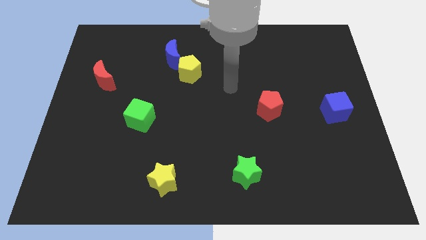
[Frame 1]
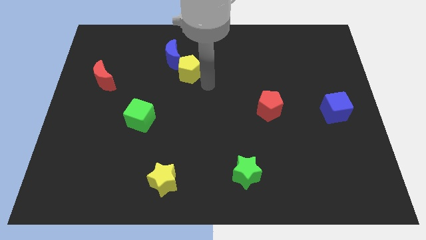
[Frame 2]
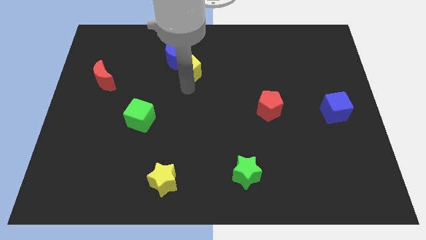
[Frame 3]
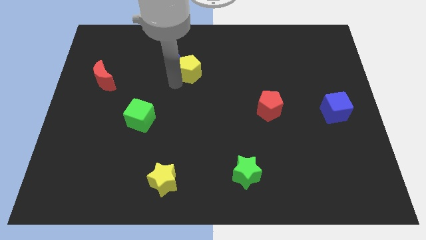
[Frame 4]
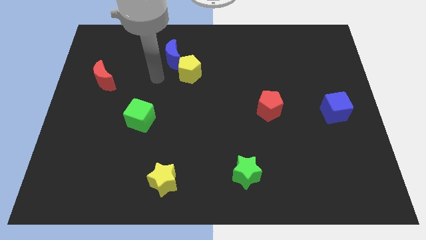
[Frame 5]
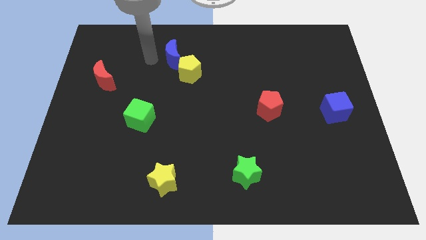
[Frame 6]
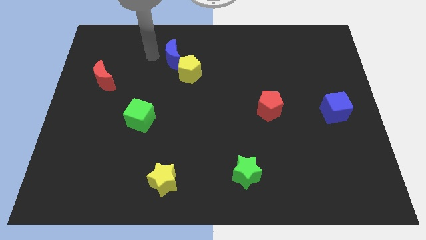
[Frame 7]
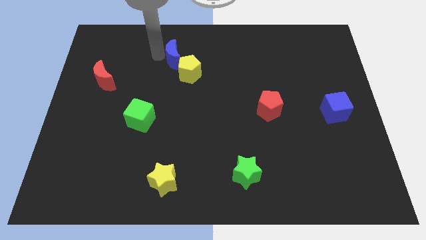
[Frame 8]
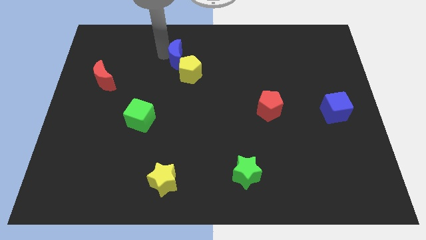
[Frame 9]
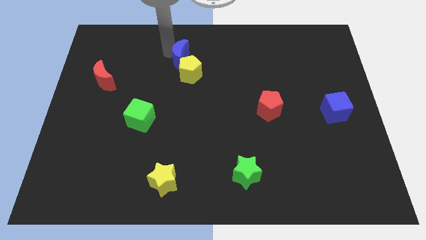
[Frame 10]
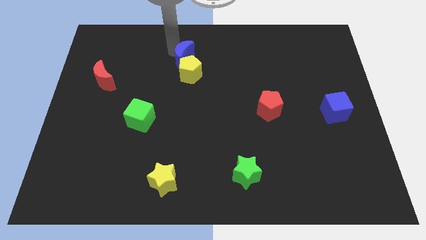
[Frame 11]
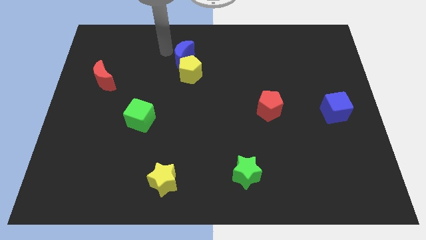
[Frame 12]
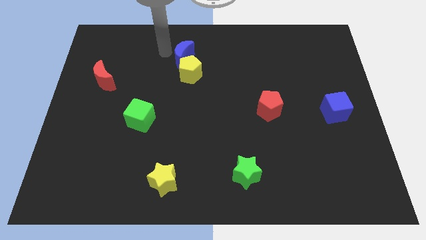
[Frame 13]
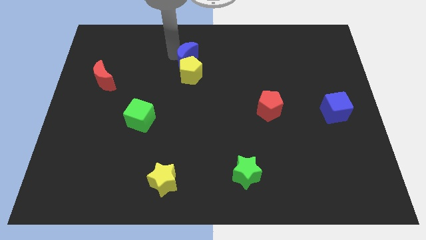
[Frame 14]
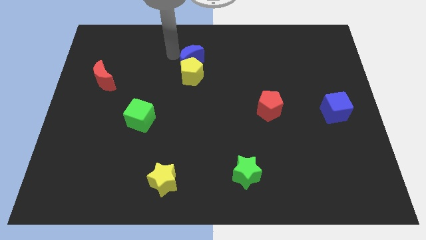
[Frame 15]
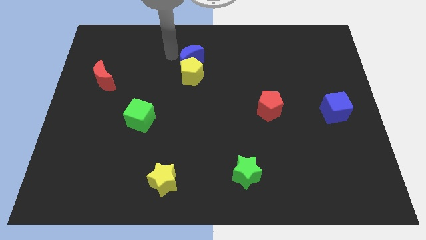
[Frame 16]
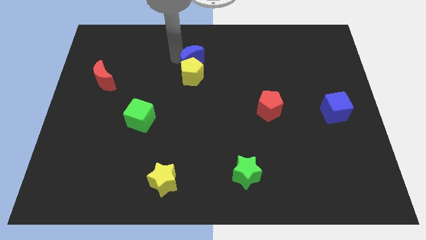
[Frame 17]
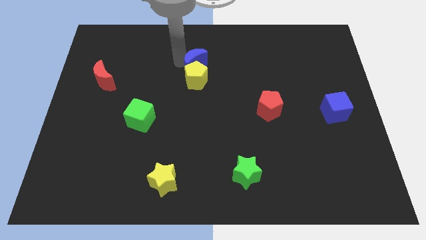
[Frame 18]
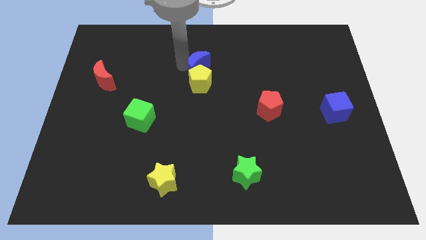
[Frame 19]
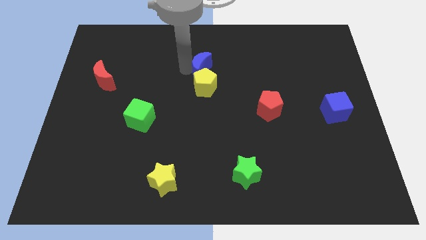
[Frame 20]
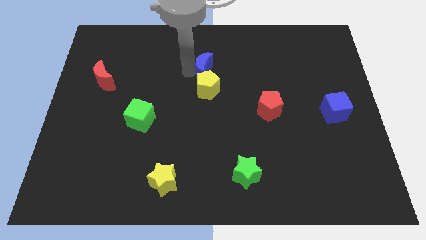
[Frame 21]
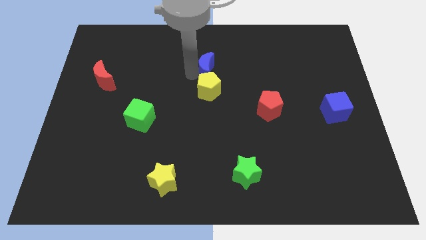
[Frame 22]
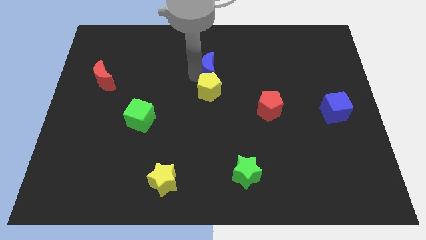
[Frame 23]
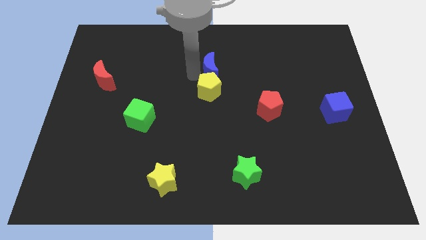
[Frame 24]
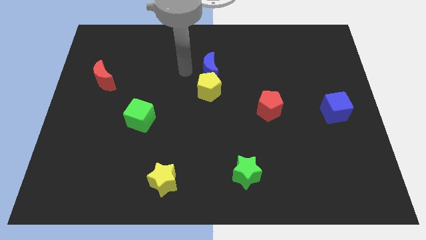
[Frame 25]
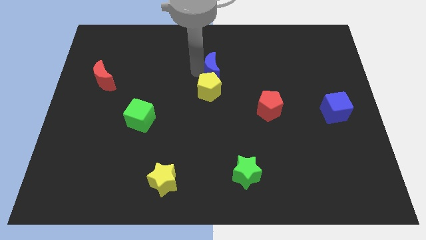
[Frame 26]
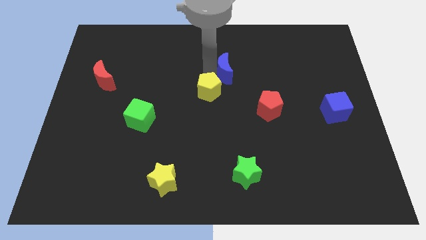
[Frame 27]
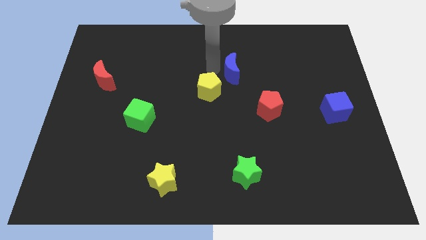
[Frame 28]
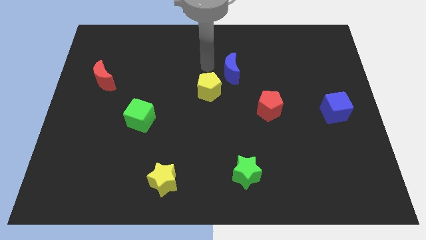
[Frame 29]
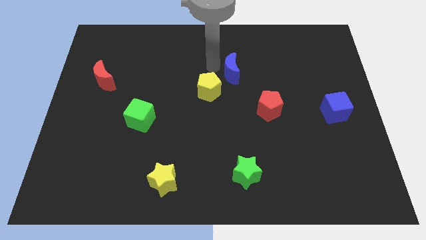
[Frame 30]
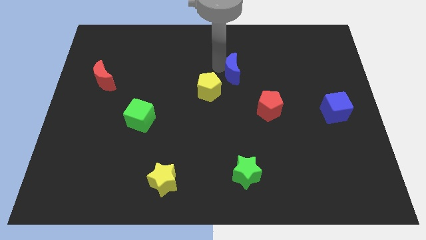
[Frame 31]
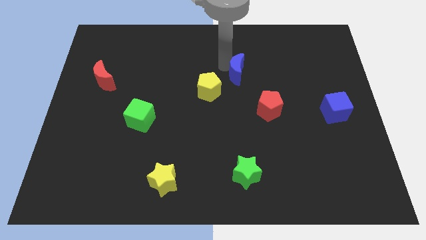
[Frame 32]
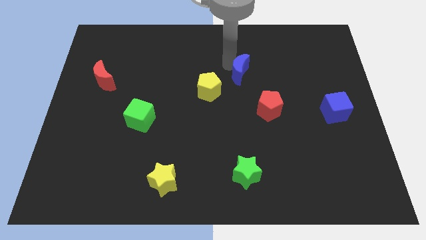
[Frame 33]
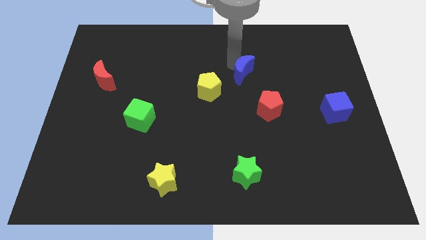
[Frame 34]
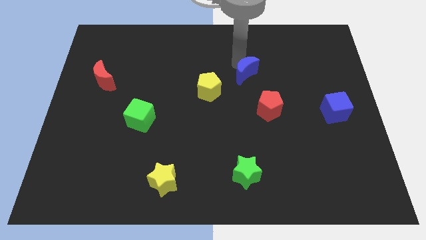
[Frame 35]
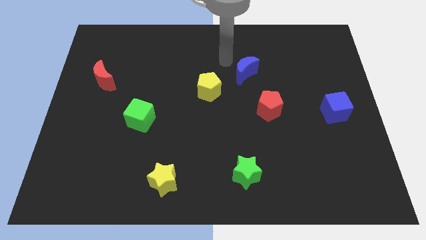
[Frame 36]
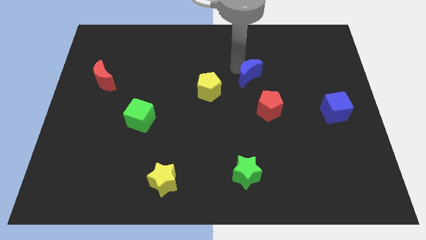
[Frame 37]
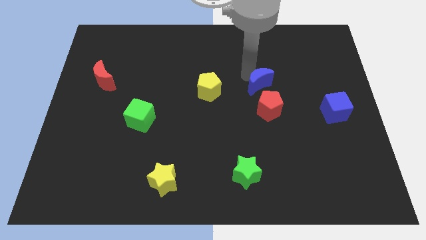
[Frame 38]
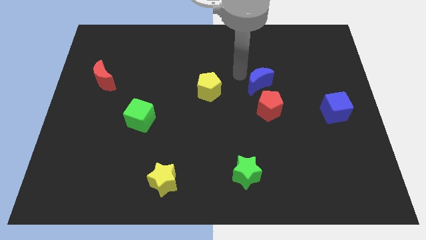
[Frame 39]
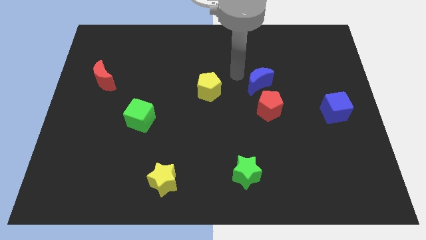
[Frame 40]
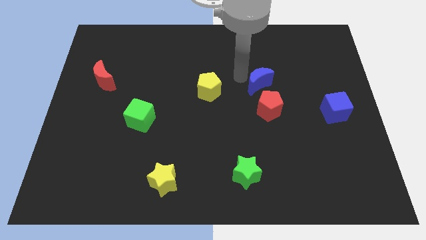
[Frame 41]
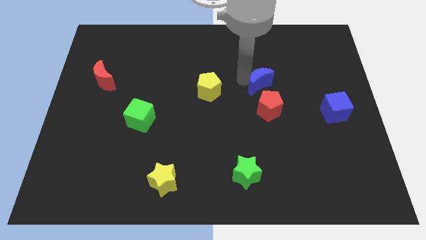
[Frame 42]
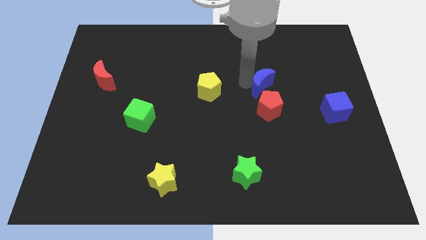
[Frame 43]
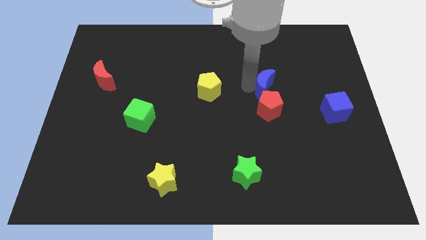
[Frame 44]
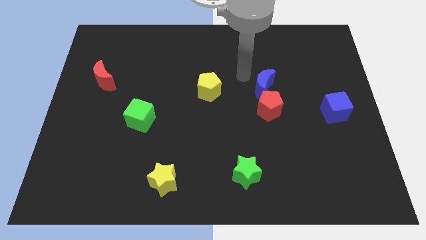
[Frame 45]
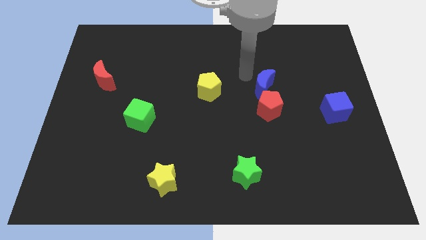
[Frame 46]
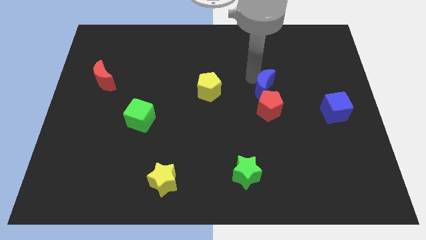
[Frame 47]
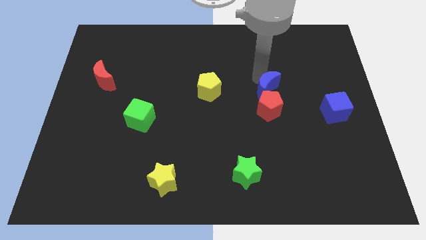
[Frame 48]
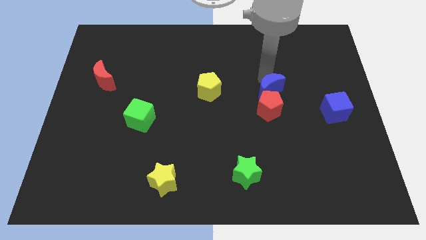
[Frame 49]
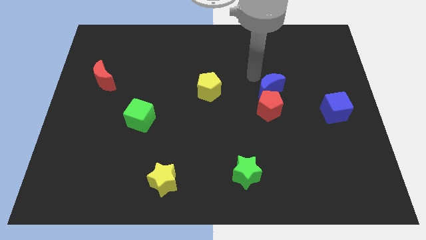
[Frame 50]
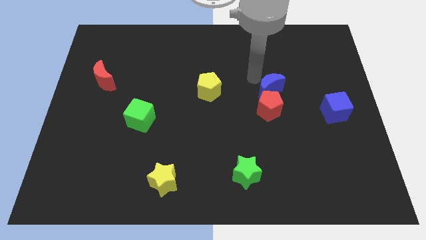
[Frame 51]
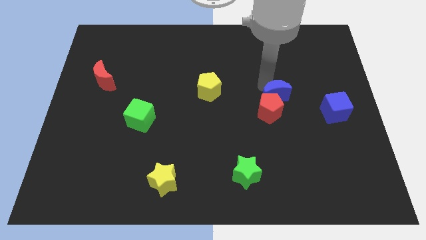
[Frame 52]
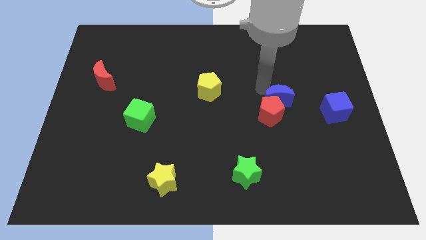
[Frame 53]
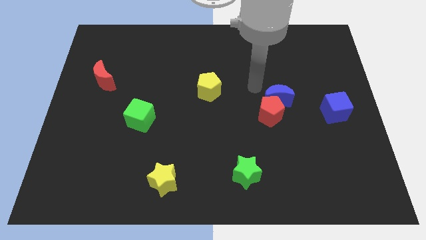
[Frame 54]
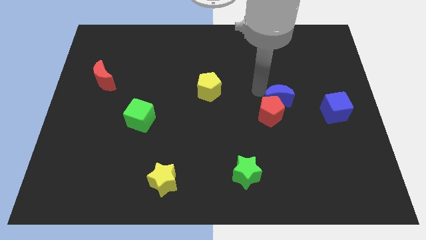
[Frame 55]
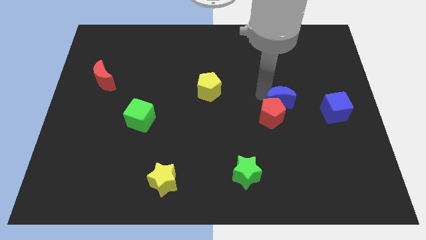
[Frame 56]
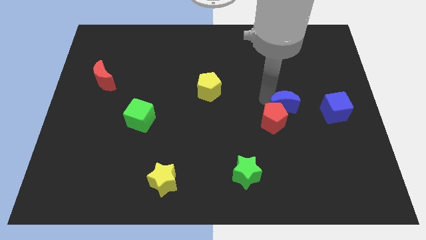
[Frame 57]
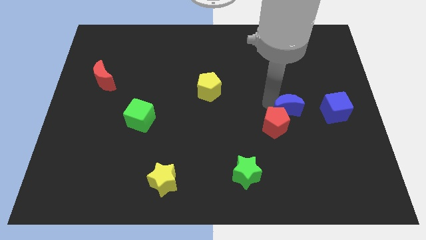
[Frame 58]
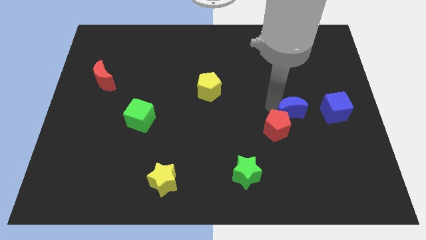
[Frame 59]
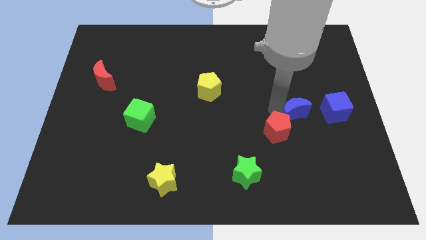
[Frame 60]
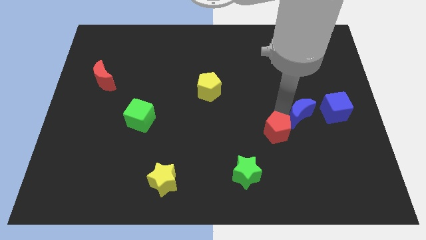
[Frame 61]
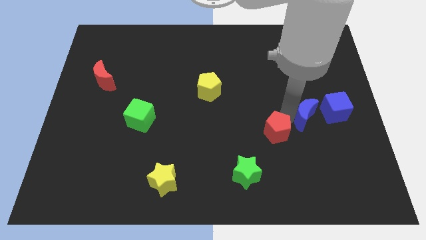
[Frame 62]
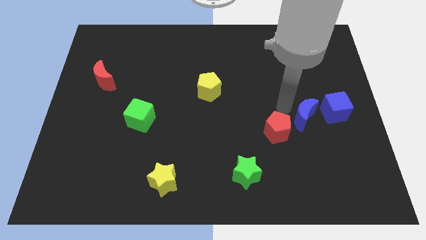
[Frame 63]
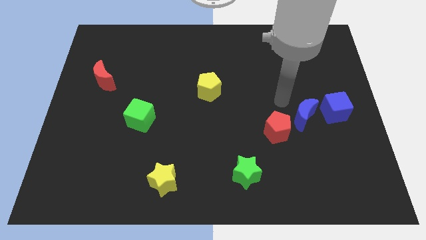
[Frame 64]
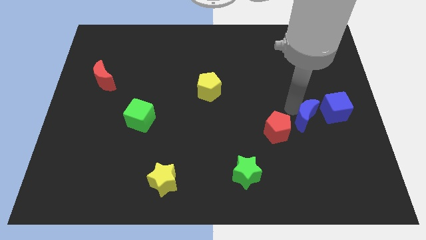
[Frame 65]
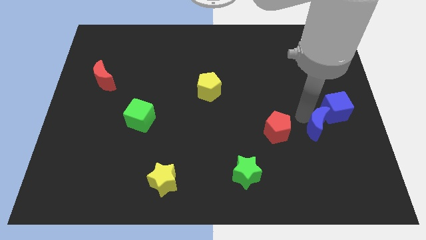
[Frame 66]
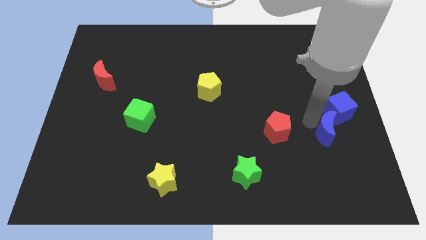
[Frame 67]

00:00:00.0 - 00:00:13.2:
push the blue moon to the bottom side of the blue cube

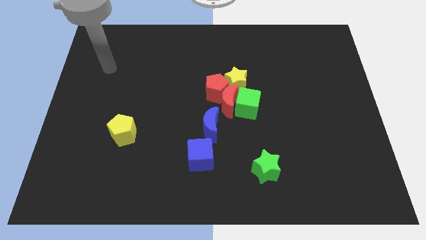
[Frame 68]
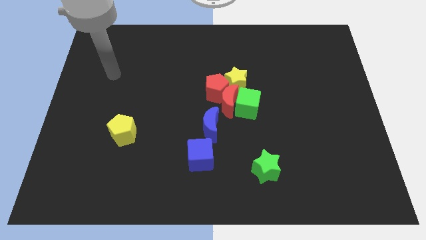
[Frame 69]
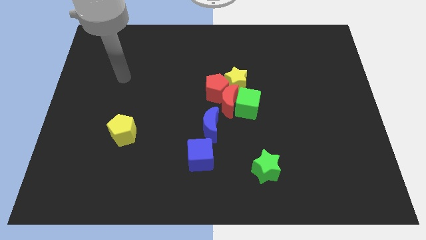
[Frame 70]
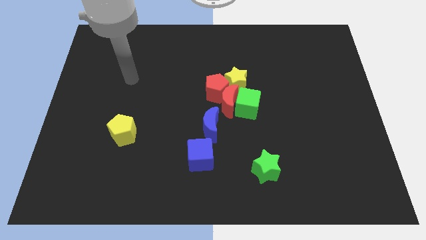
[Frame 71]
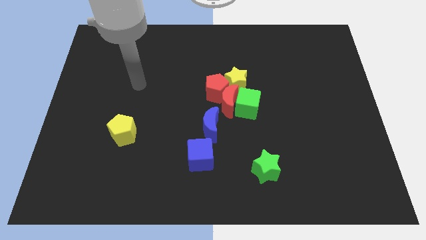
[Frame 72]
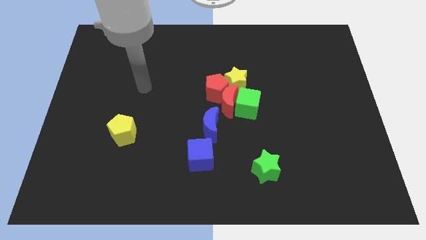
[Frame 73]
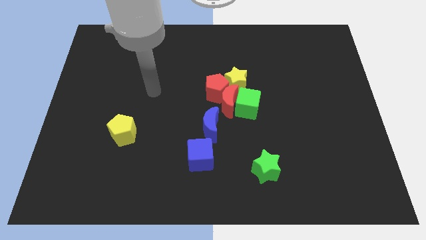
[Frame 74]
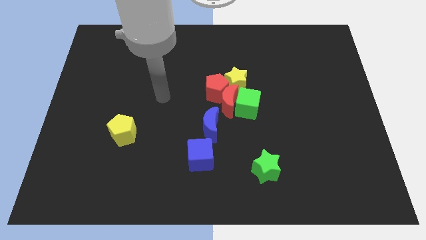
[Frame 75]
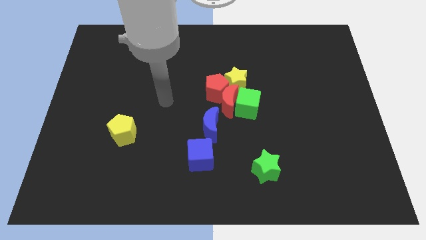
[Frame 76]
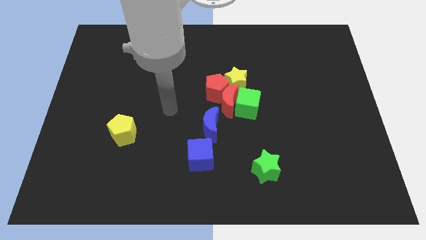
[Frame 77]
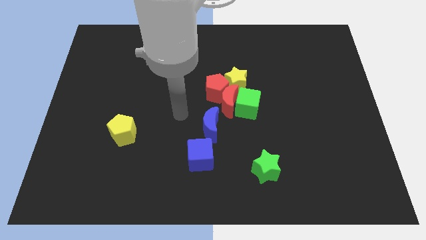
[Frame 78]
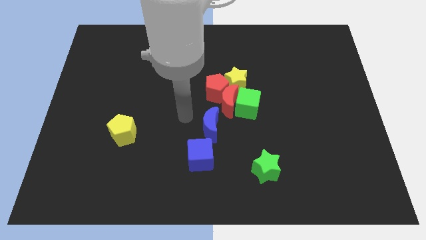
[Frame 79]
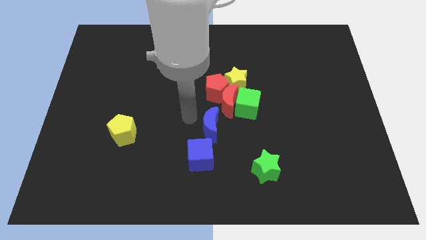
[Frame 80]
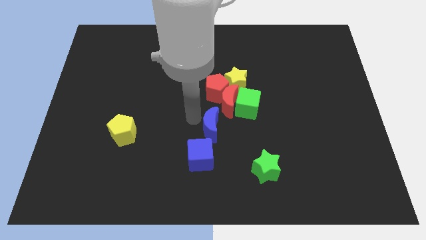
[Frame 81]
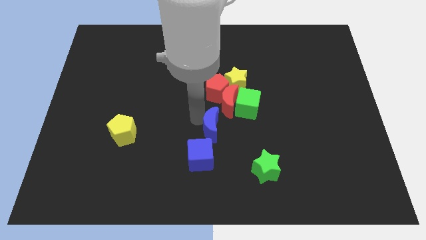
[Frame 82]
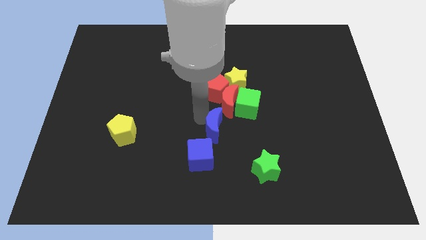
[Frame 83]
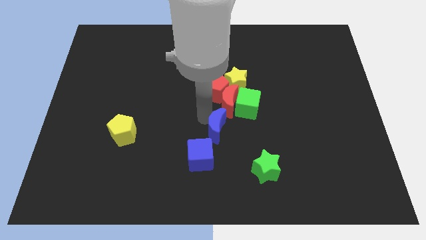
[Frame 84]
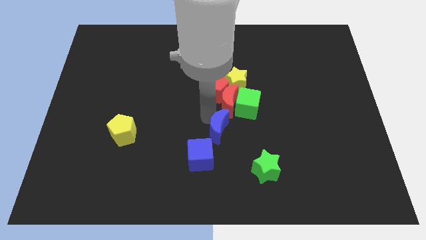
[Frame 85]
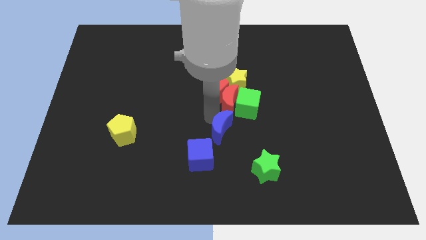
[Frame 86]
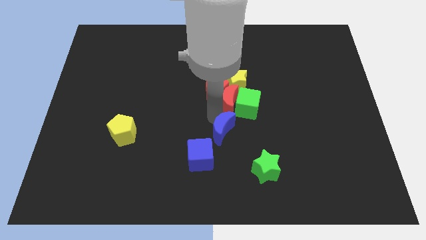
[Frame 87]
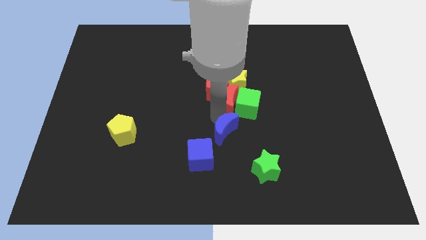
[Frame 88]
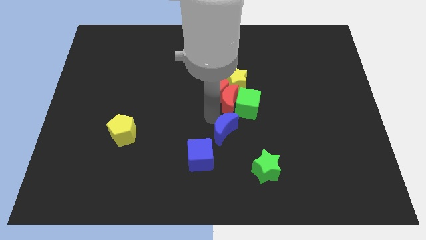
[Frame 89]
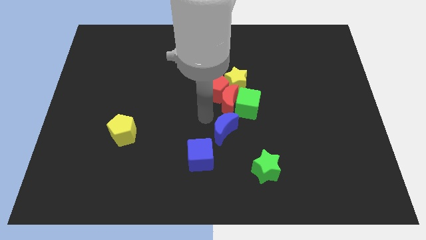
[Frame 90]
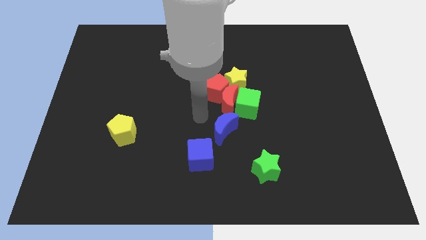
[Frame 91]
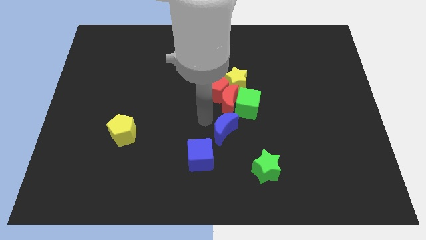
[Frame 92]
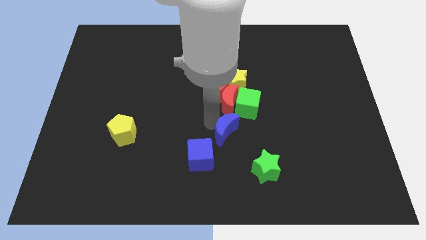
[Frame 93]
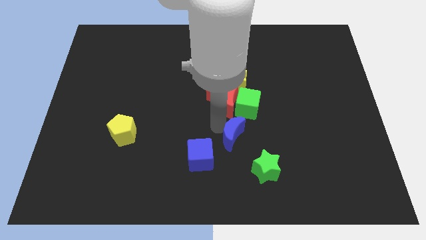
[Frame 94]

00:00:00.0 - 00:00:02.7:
move the blue moon to the bottom of the green cube
